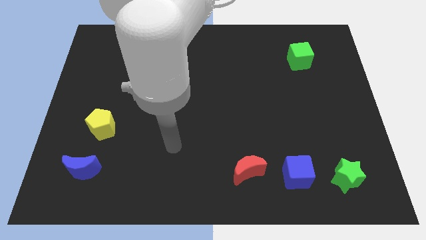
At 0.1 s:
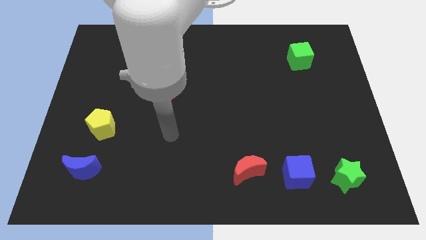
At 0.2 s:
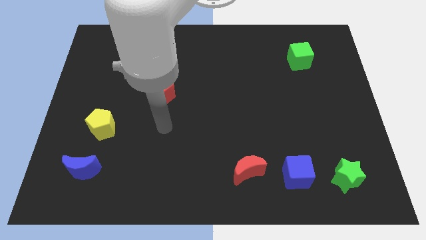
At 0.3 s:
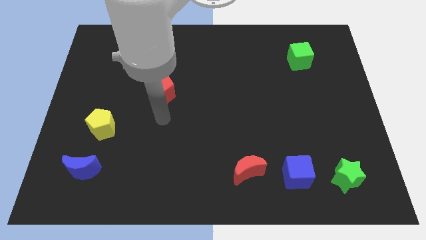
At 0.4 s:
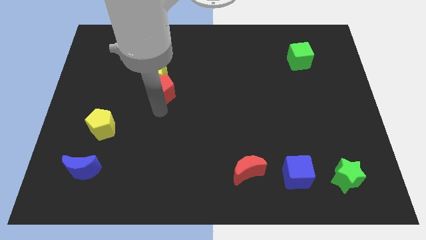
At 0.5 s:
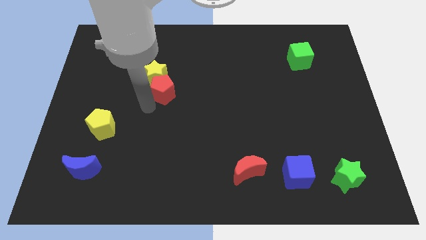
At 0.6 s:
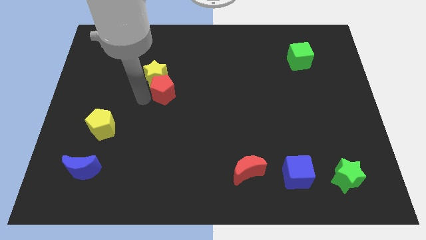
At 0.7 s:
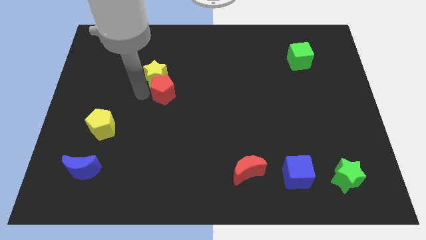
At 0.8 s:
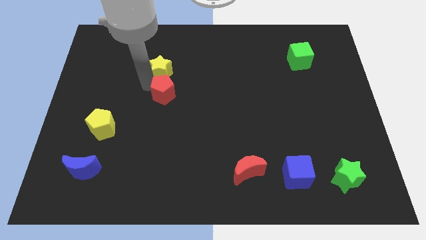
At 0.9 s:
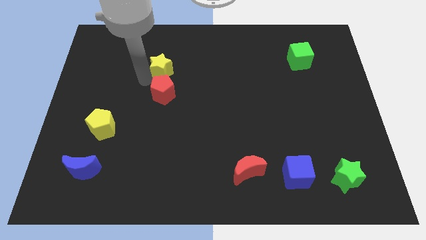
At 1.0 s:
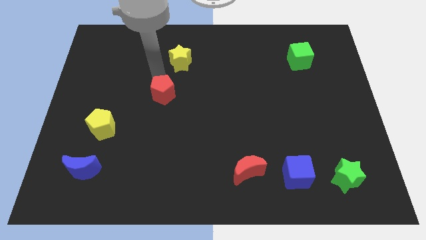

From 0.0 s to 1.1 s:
separate the red pentagon from the yellow star

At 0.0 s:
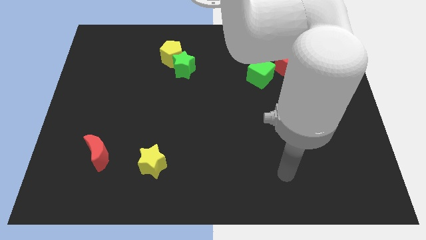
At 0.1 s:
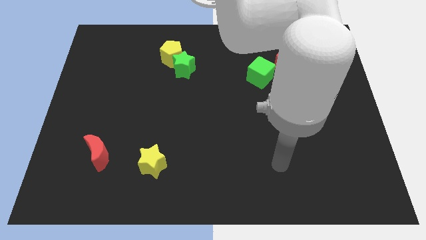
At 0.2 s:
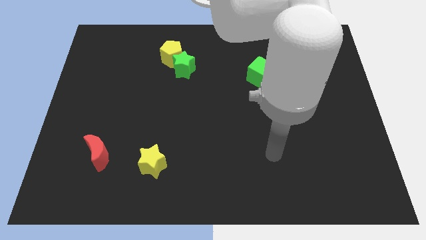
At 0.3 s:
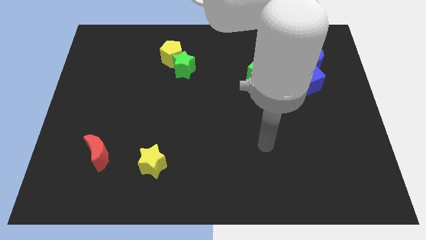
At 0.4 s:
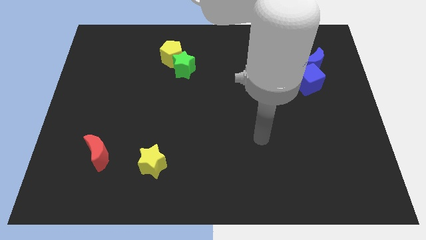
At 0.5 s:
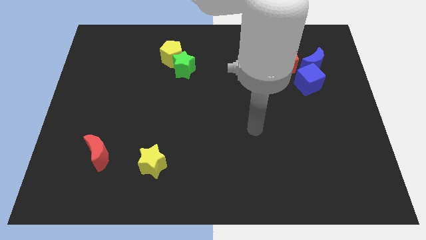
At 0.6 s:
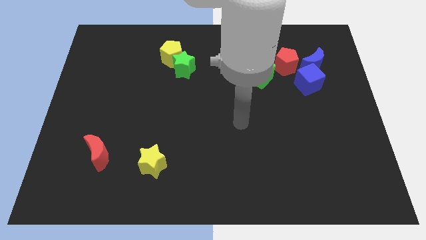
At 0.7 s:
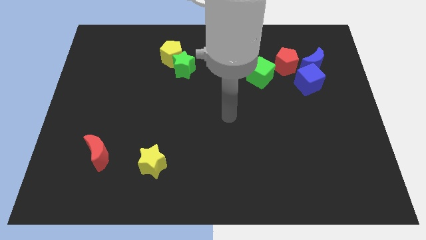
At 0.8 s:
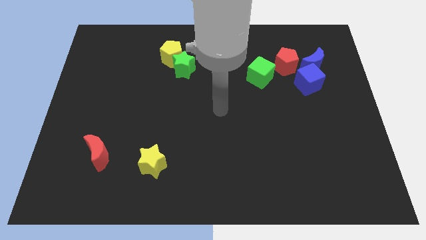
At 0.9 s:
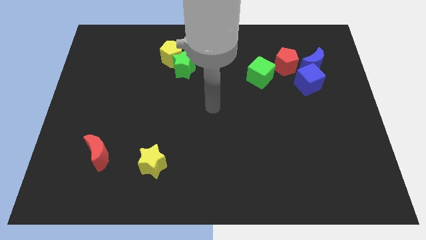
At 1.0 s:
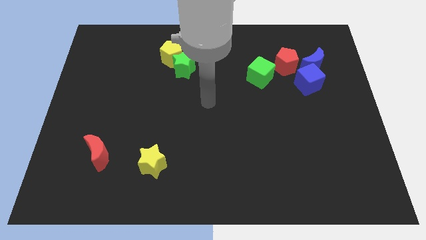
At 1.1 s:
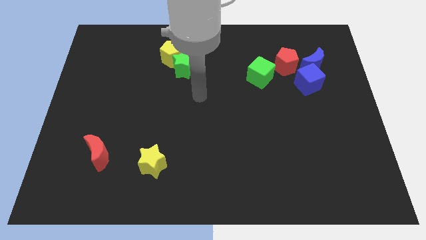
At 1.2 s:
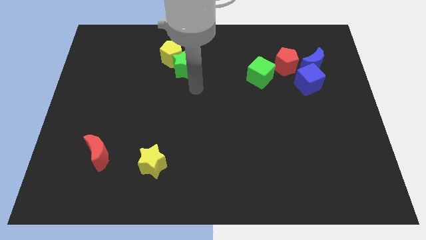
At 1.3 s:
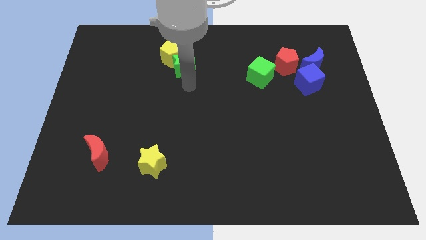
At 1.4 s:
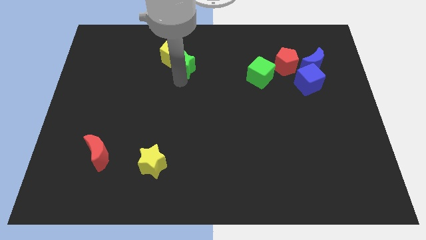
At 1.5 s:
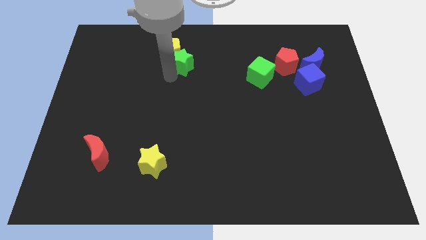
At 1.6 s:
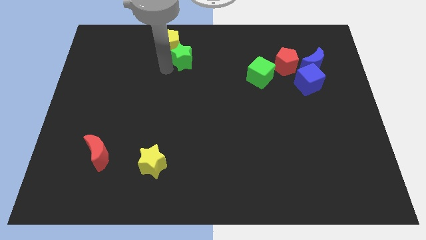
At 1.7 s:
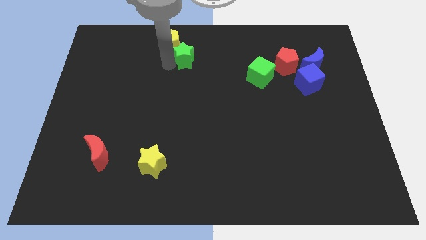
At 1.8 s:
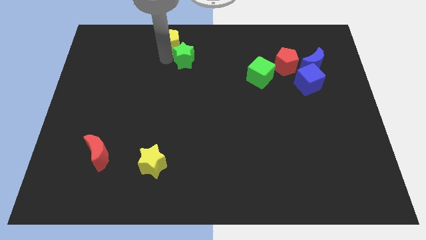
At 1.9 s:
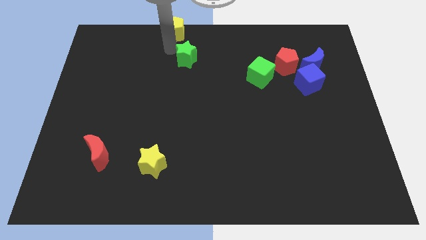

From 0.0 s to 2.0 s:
separate the green star from the yellow pentagon

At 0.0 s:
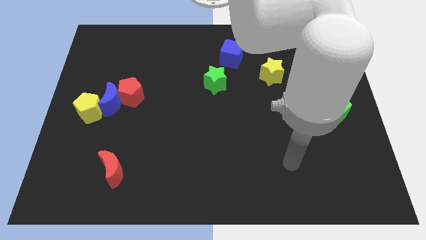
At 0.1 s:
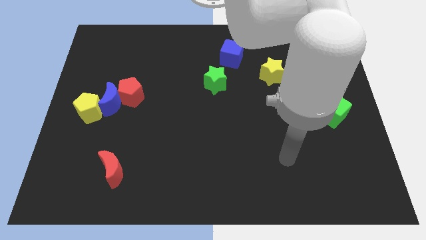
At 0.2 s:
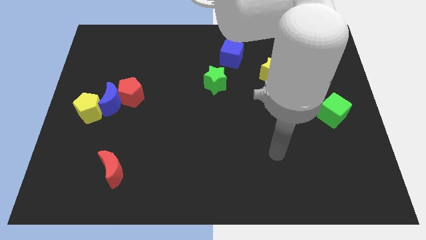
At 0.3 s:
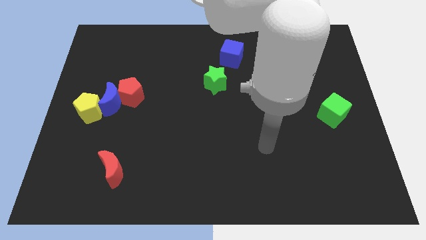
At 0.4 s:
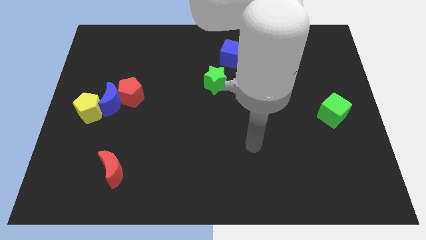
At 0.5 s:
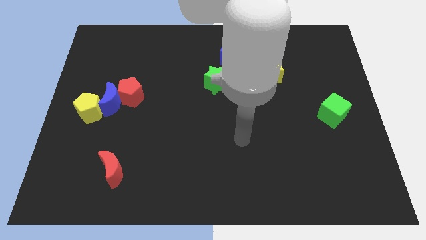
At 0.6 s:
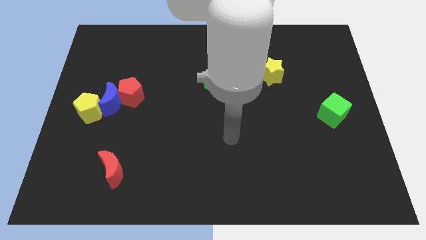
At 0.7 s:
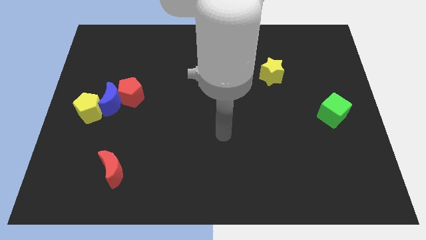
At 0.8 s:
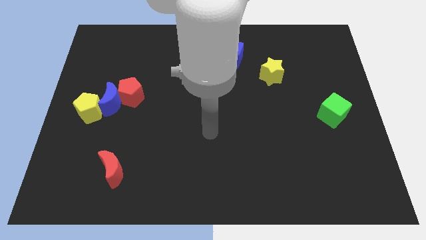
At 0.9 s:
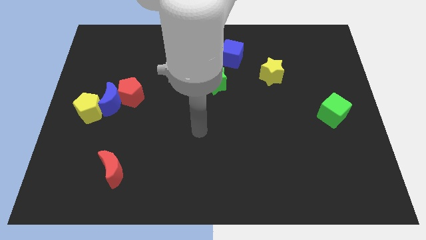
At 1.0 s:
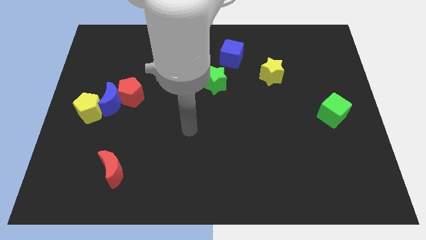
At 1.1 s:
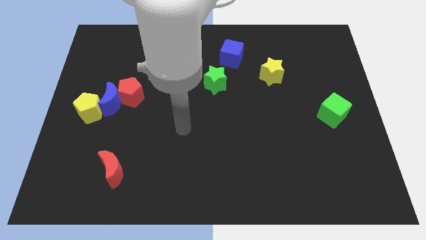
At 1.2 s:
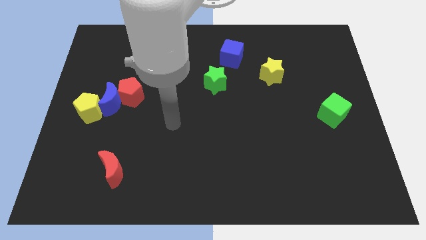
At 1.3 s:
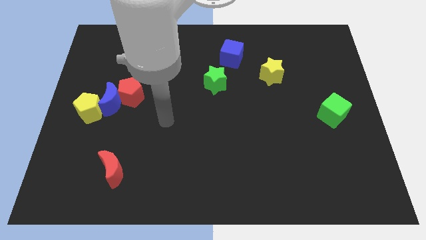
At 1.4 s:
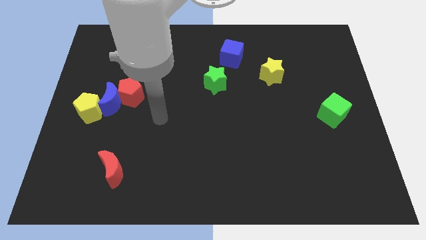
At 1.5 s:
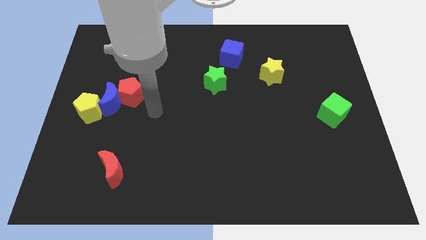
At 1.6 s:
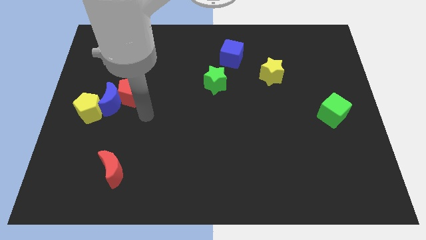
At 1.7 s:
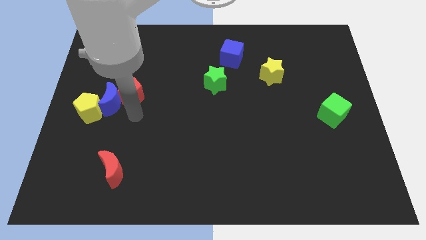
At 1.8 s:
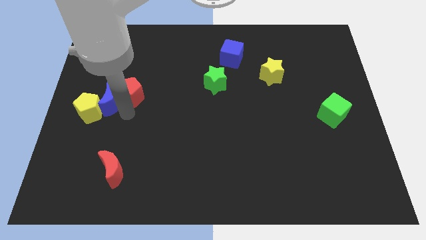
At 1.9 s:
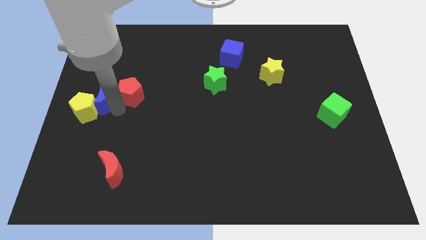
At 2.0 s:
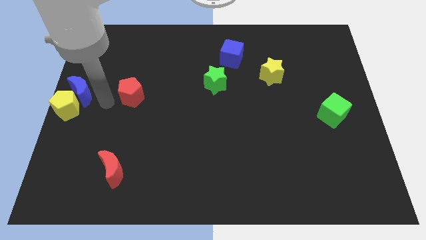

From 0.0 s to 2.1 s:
move the red pentagon away from the blue moon

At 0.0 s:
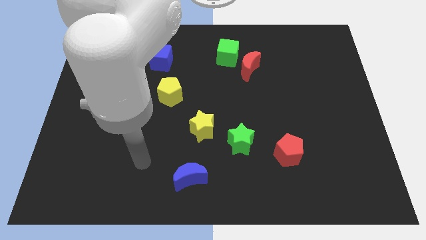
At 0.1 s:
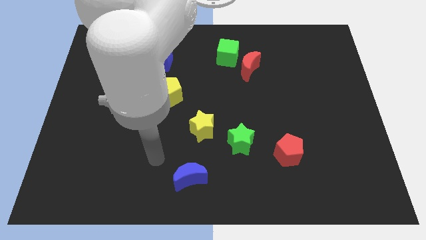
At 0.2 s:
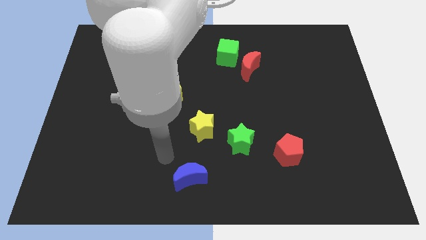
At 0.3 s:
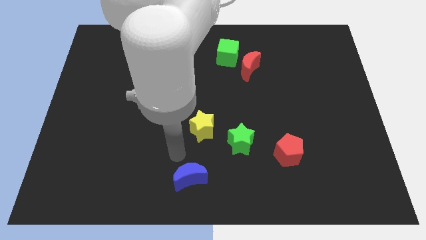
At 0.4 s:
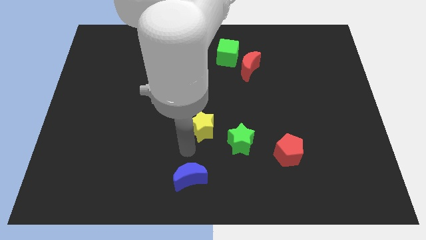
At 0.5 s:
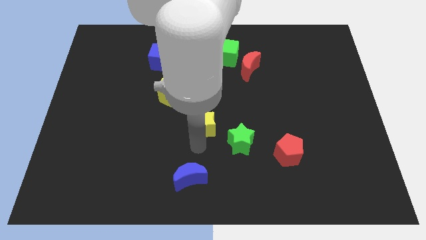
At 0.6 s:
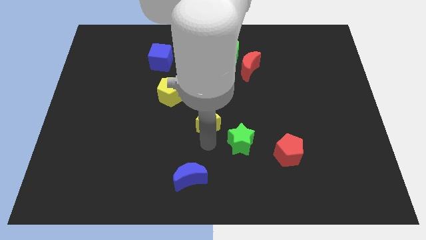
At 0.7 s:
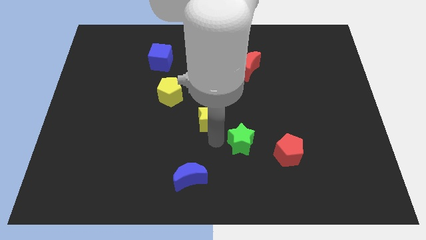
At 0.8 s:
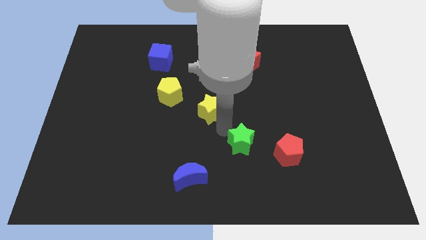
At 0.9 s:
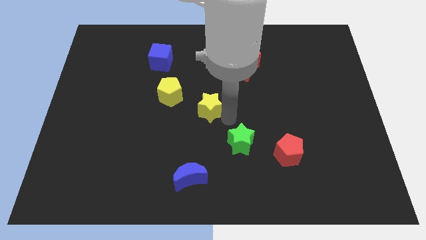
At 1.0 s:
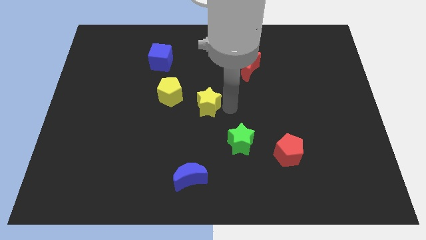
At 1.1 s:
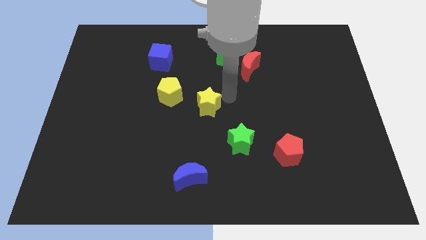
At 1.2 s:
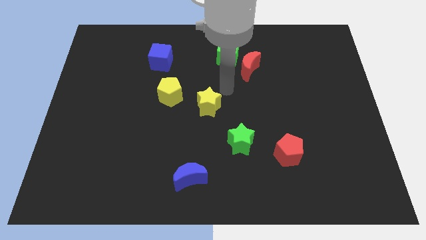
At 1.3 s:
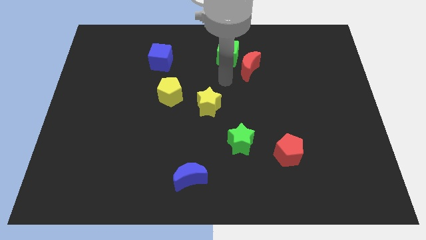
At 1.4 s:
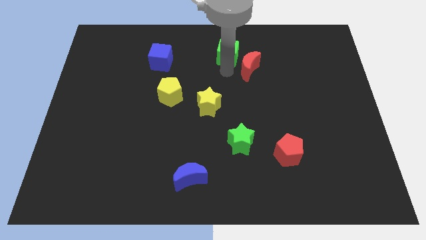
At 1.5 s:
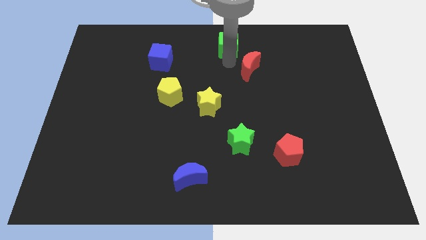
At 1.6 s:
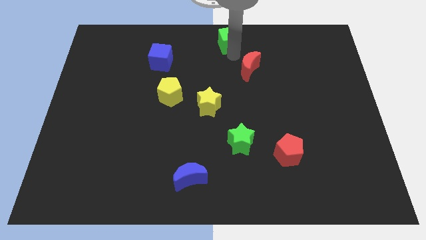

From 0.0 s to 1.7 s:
move the red moon away from the green cube

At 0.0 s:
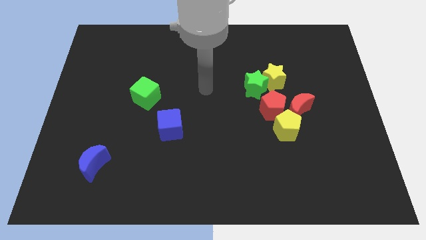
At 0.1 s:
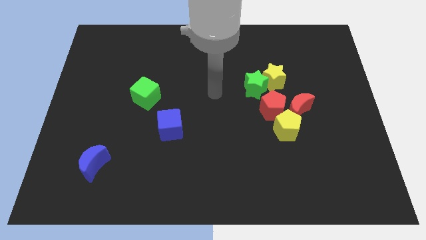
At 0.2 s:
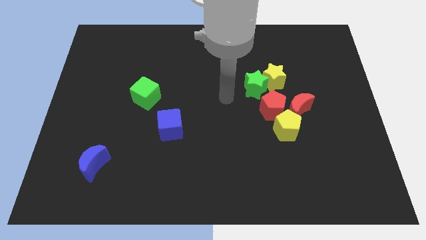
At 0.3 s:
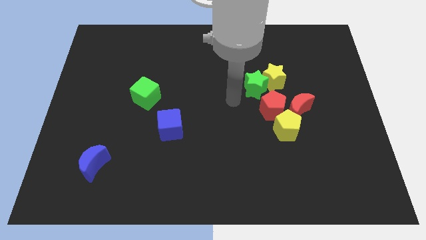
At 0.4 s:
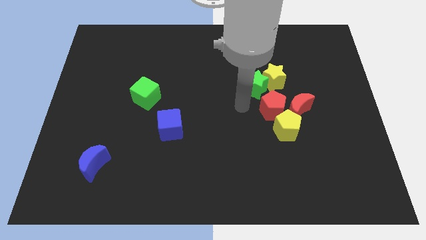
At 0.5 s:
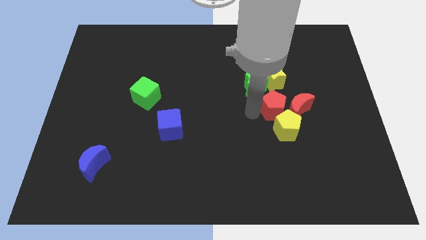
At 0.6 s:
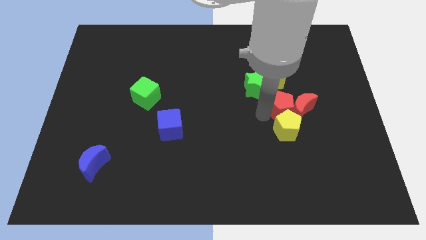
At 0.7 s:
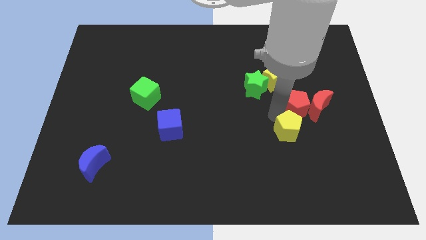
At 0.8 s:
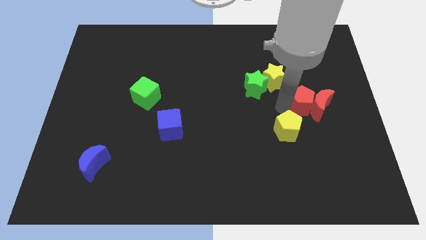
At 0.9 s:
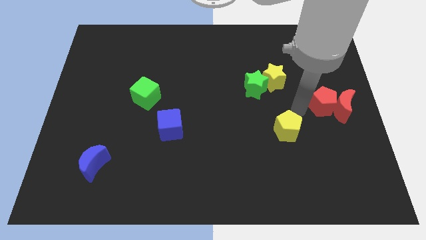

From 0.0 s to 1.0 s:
separate the yellow pentagon from the red moon and red pentagon

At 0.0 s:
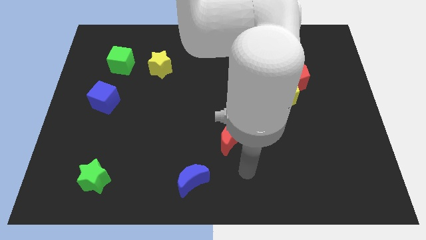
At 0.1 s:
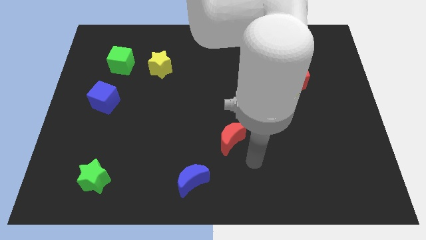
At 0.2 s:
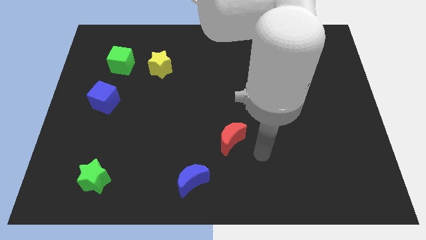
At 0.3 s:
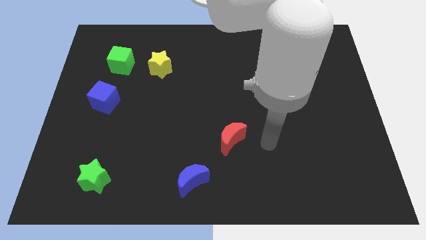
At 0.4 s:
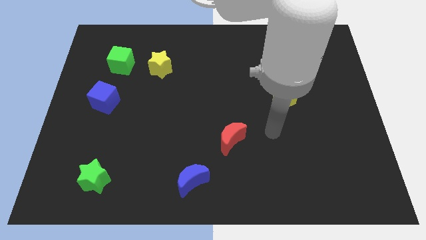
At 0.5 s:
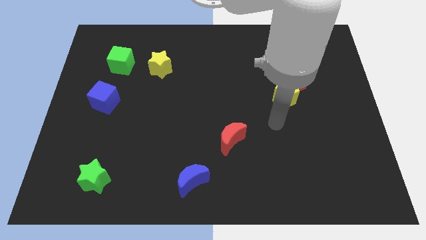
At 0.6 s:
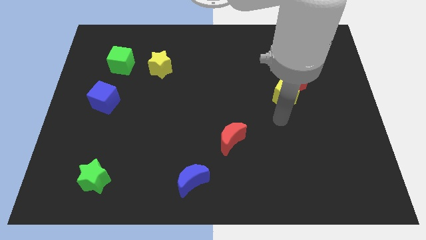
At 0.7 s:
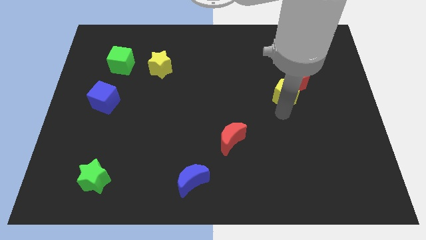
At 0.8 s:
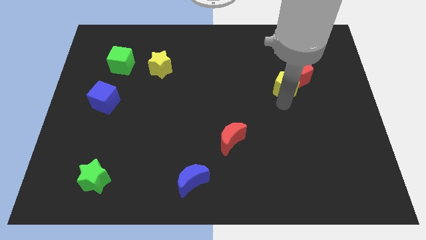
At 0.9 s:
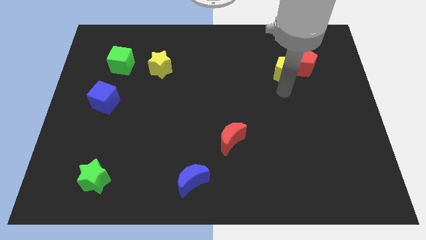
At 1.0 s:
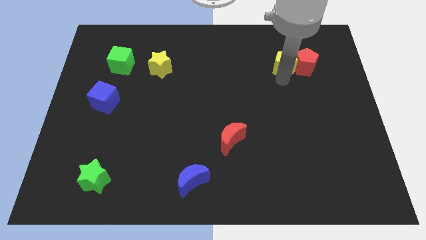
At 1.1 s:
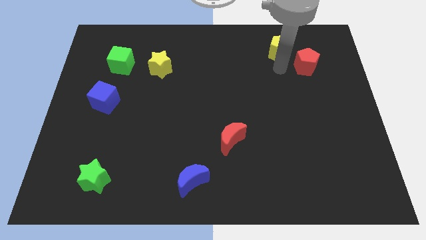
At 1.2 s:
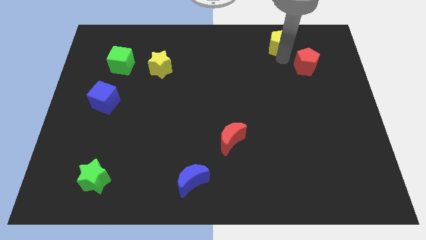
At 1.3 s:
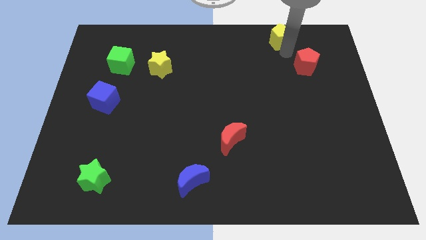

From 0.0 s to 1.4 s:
separate the red pentagon from the yellow pentagon
